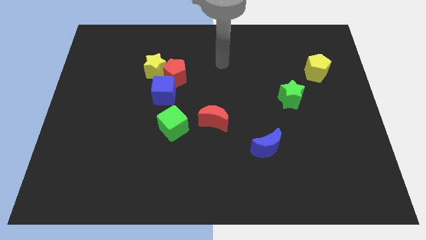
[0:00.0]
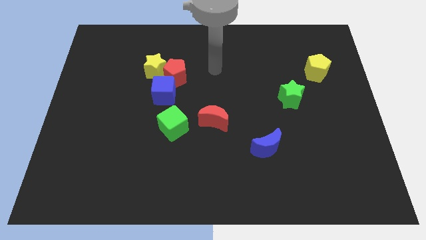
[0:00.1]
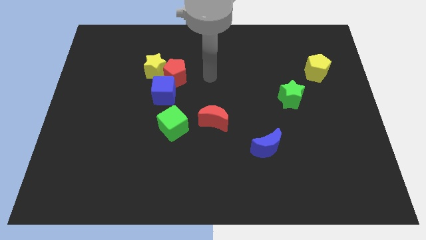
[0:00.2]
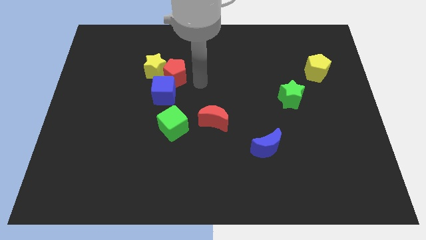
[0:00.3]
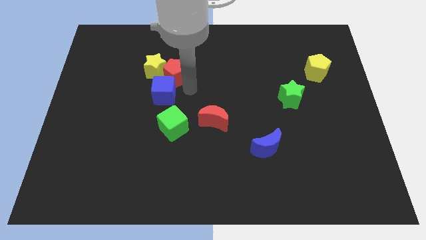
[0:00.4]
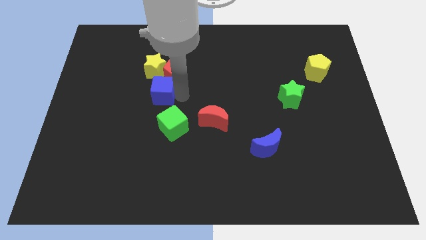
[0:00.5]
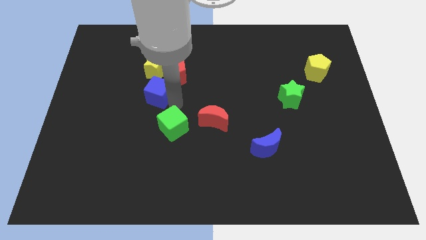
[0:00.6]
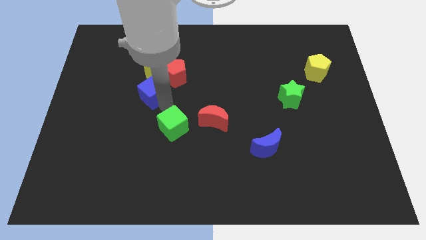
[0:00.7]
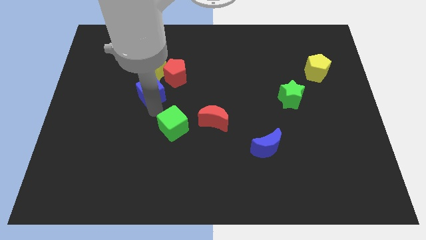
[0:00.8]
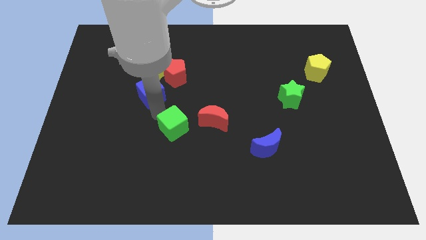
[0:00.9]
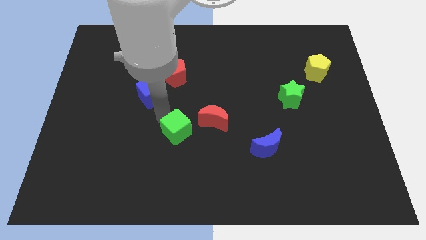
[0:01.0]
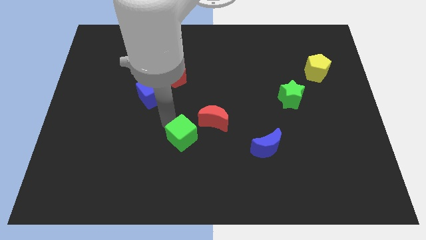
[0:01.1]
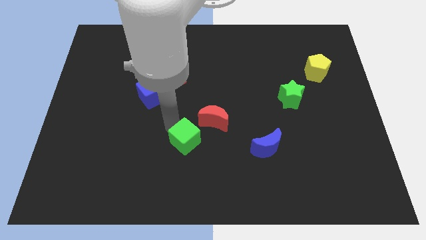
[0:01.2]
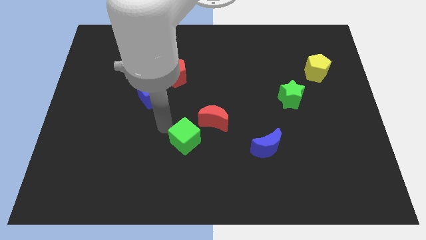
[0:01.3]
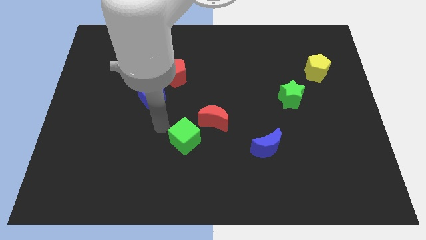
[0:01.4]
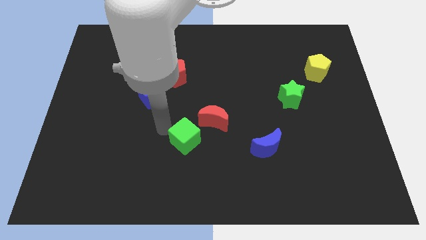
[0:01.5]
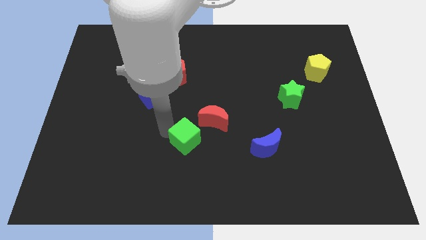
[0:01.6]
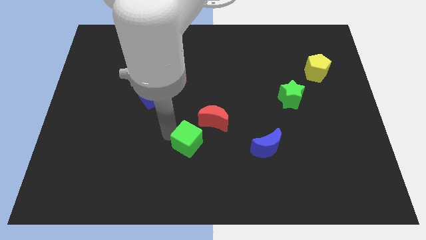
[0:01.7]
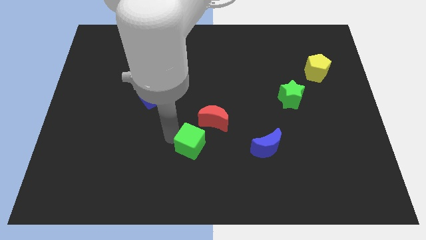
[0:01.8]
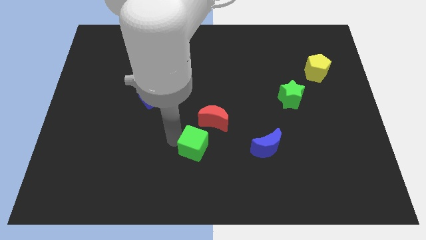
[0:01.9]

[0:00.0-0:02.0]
slightly move the green cube diagonally down and to the right

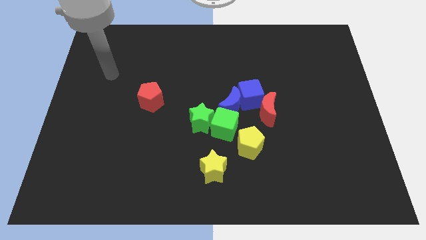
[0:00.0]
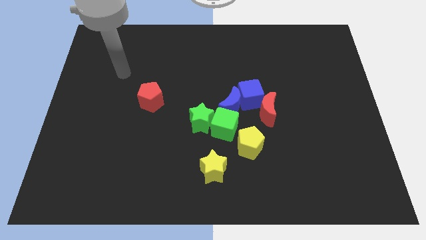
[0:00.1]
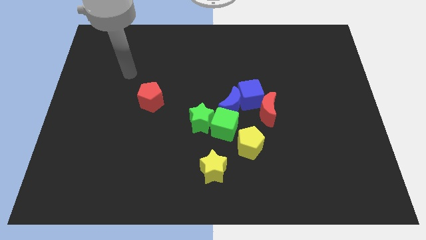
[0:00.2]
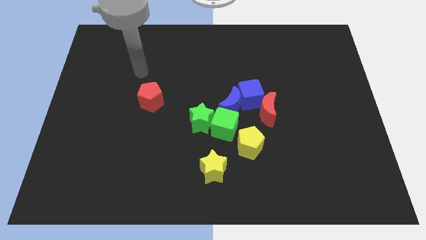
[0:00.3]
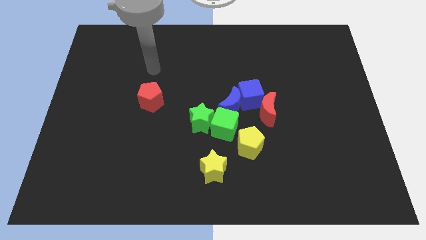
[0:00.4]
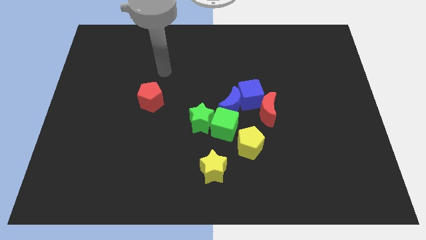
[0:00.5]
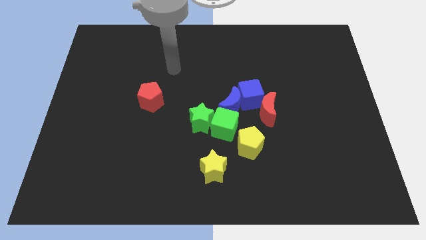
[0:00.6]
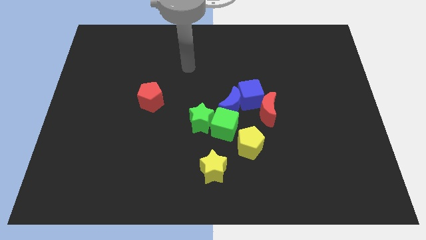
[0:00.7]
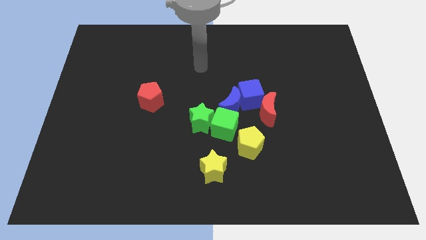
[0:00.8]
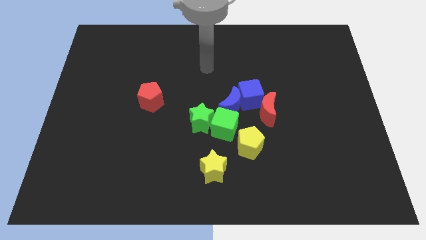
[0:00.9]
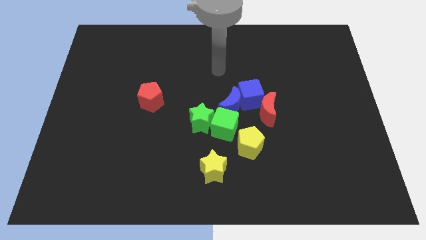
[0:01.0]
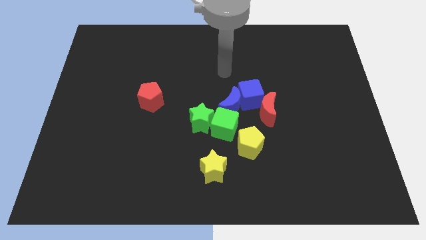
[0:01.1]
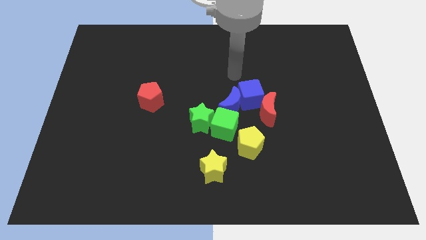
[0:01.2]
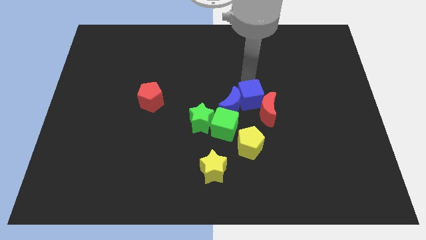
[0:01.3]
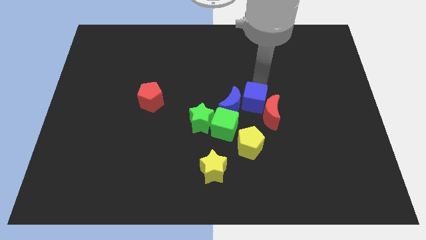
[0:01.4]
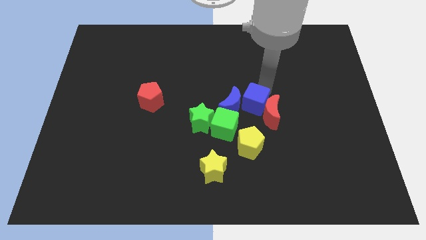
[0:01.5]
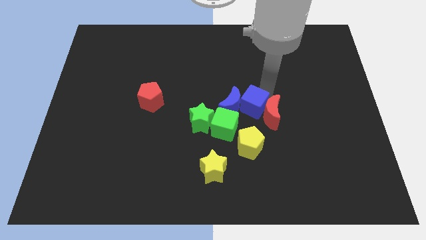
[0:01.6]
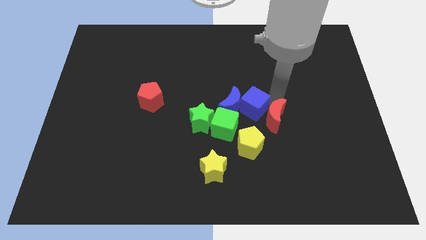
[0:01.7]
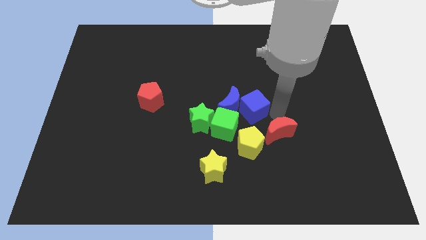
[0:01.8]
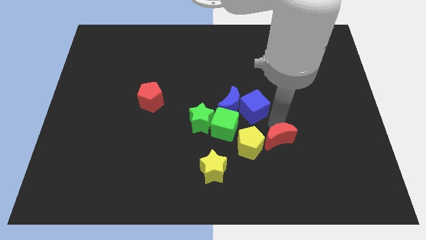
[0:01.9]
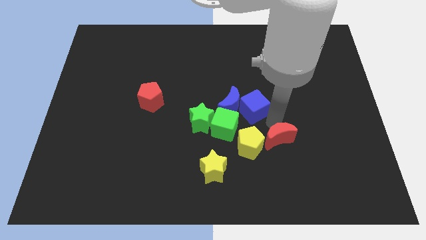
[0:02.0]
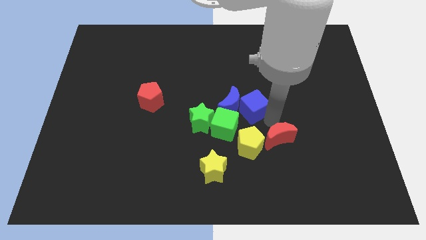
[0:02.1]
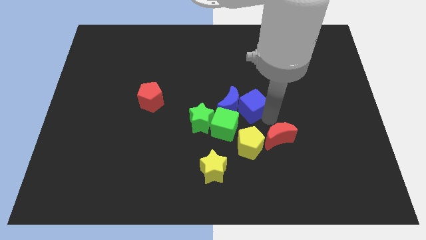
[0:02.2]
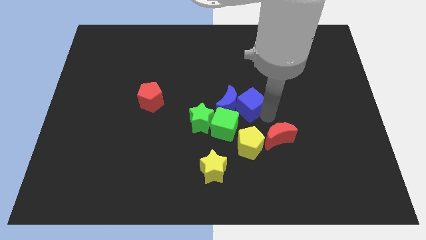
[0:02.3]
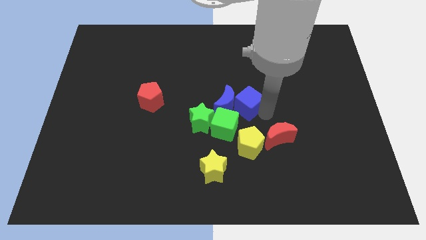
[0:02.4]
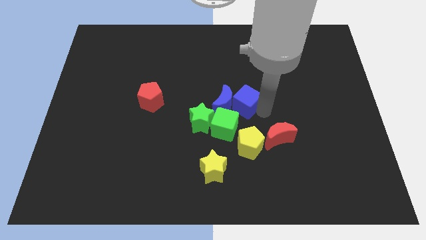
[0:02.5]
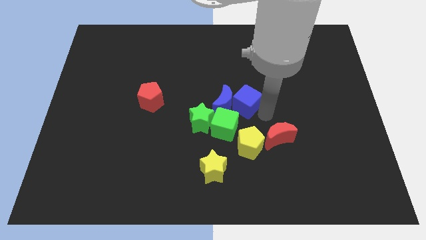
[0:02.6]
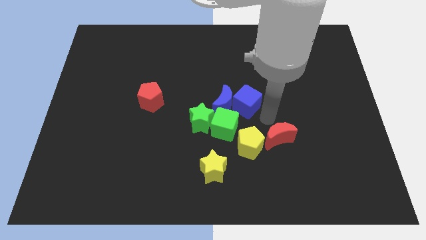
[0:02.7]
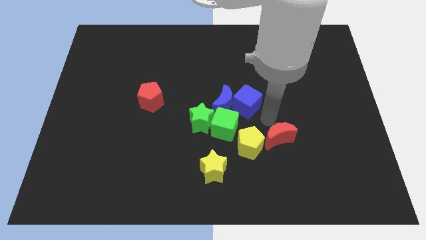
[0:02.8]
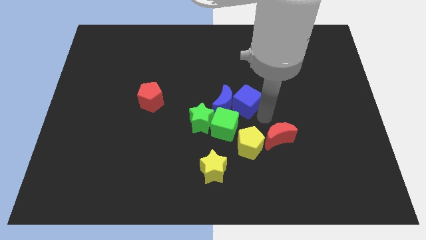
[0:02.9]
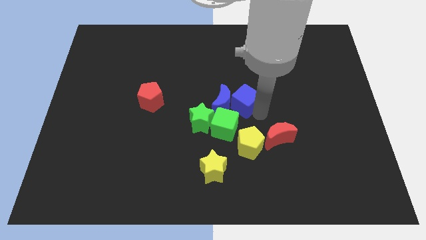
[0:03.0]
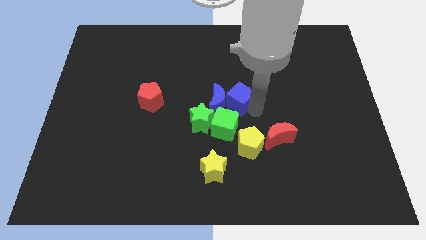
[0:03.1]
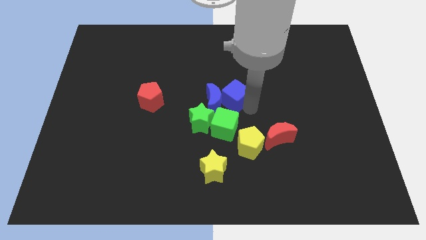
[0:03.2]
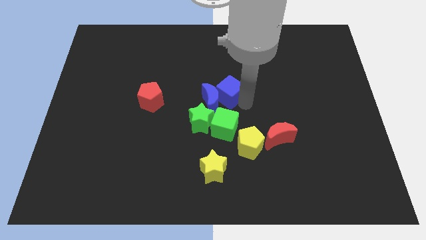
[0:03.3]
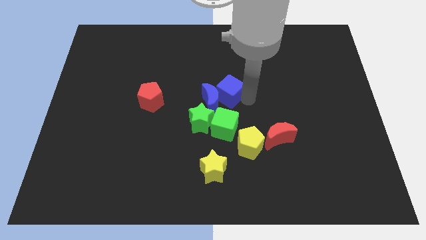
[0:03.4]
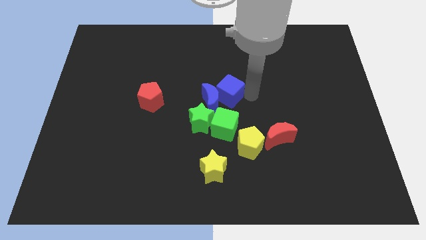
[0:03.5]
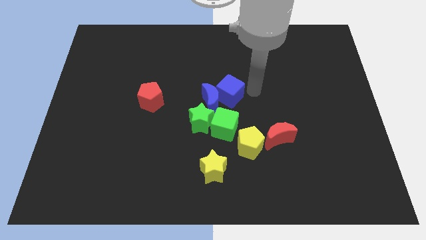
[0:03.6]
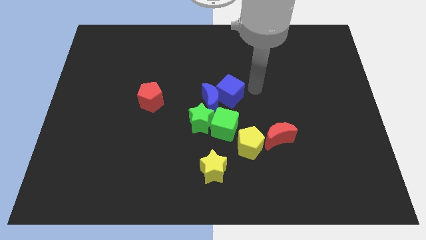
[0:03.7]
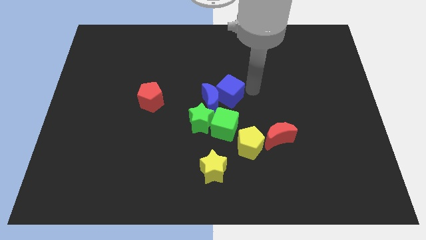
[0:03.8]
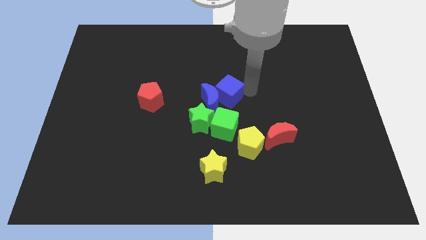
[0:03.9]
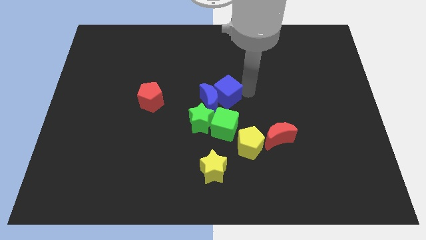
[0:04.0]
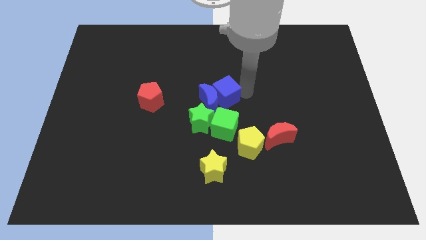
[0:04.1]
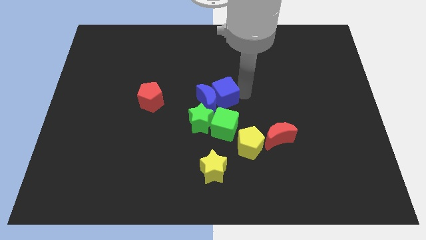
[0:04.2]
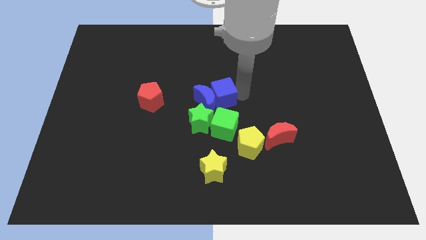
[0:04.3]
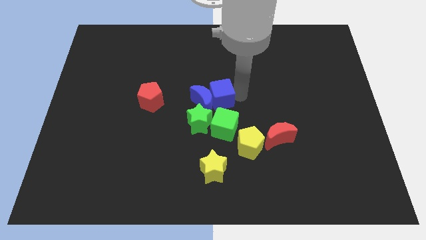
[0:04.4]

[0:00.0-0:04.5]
push the blue cube somewhat left

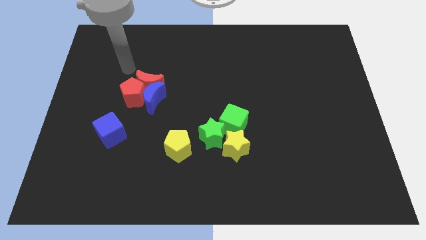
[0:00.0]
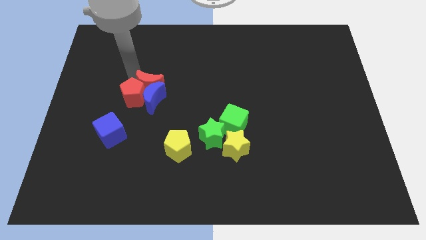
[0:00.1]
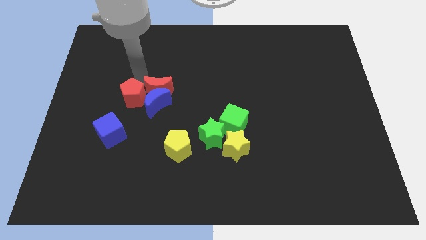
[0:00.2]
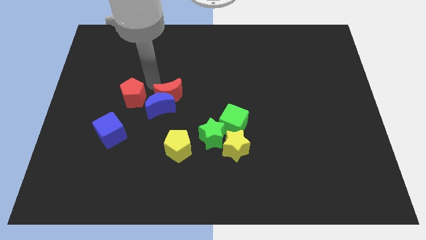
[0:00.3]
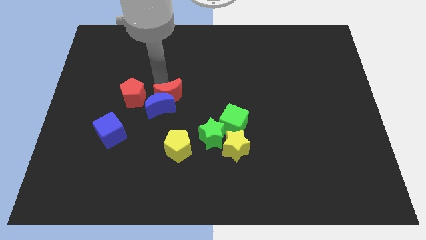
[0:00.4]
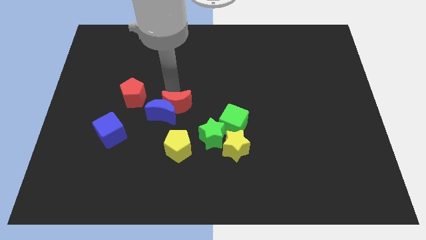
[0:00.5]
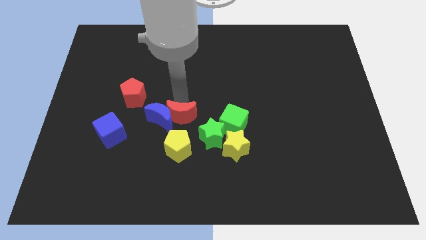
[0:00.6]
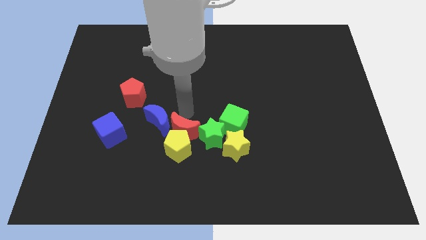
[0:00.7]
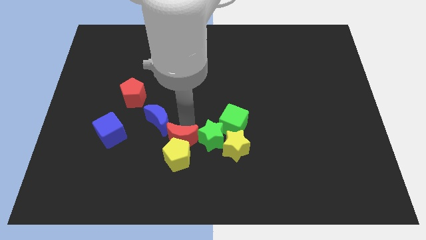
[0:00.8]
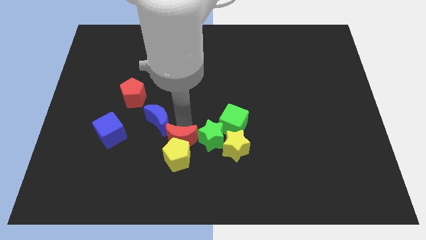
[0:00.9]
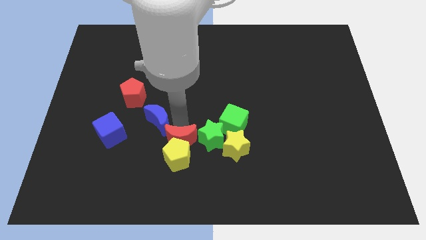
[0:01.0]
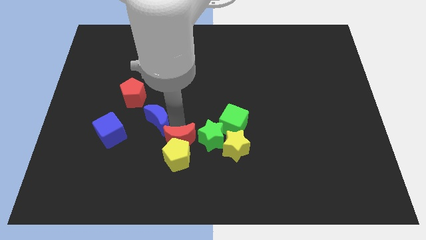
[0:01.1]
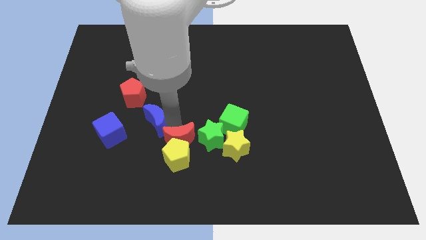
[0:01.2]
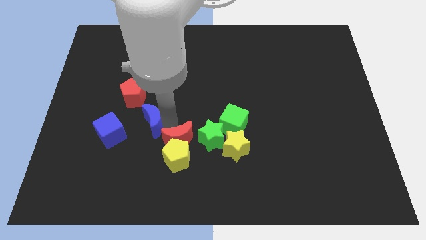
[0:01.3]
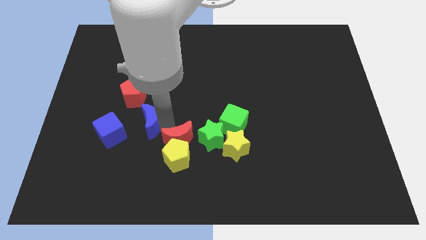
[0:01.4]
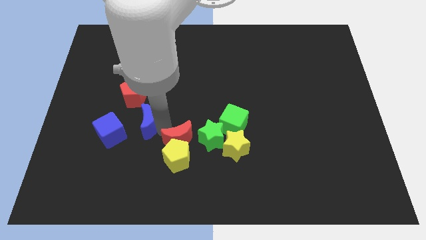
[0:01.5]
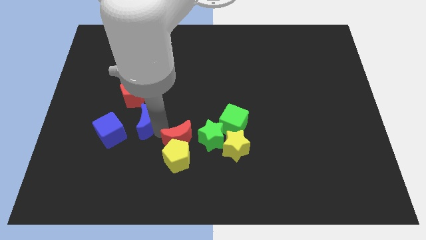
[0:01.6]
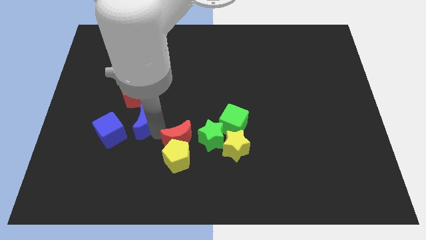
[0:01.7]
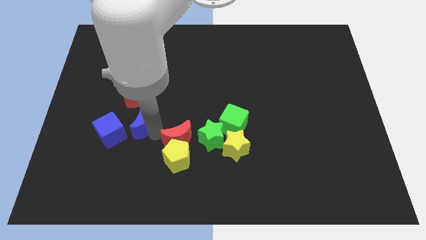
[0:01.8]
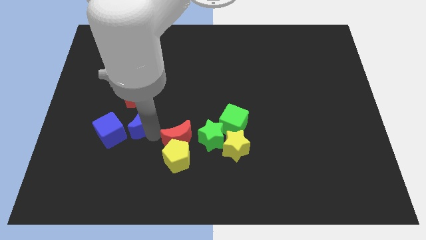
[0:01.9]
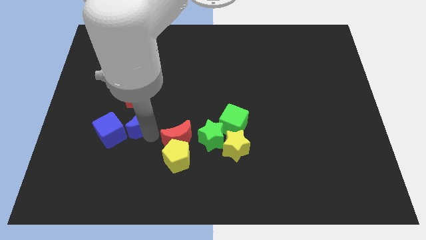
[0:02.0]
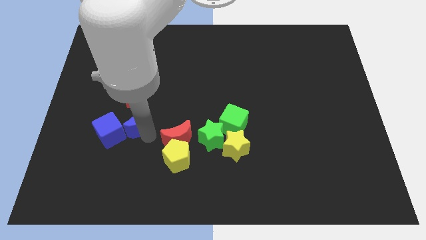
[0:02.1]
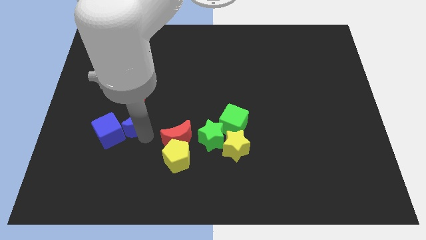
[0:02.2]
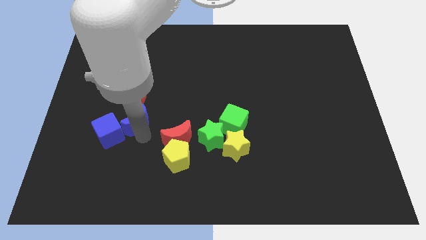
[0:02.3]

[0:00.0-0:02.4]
move the blue moon down and then to the left slightly
